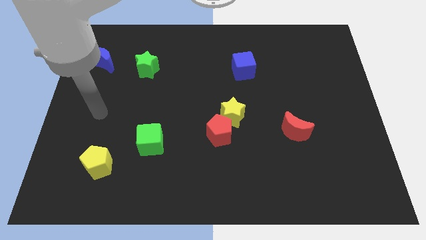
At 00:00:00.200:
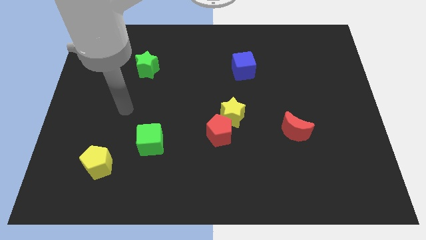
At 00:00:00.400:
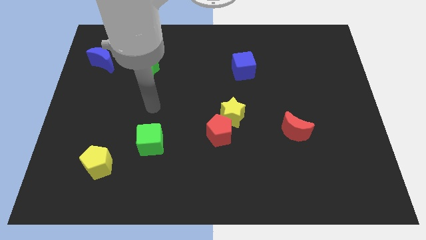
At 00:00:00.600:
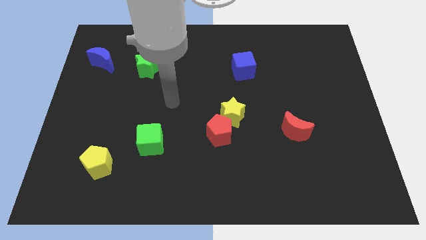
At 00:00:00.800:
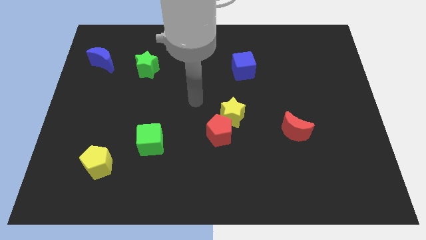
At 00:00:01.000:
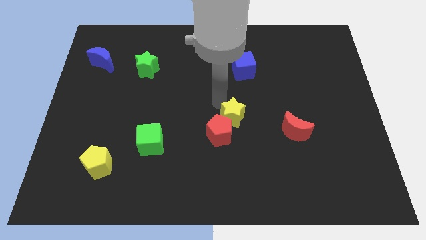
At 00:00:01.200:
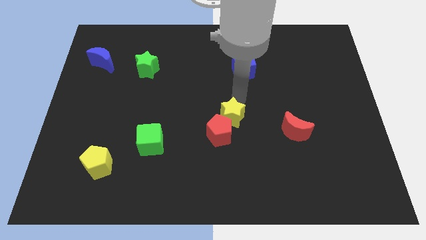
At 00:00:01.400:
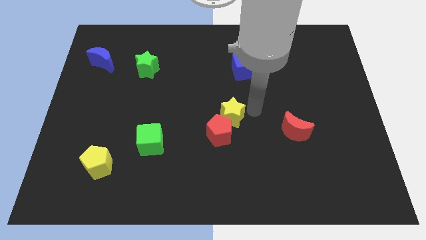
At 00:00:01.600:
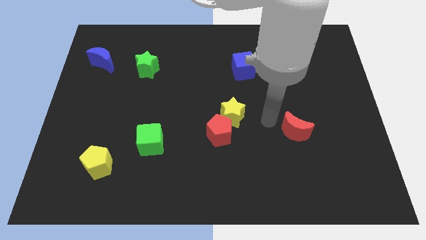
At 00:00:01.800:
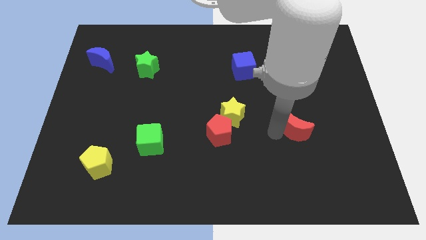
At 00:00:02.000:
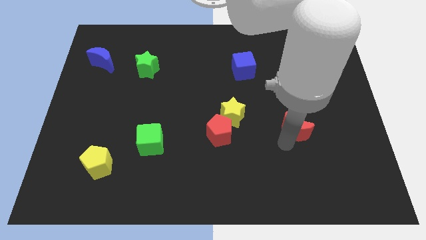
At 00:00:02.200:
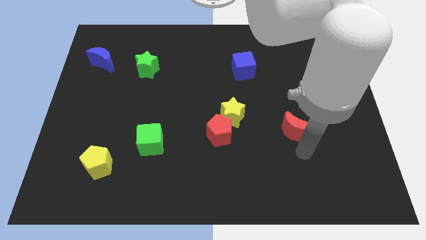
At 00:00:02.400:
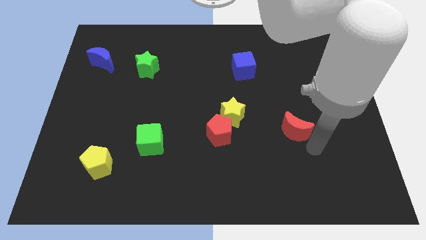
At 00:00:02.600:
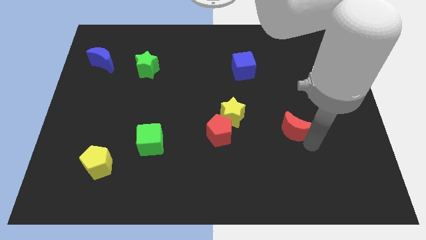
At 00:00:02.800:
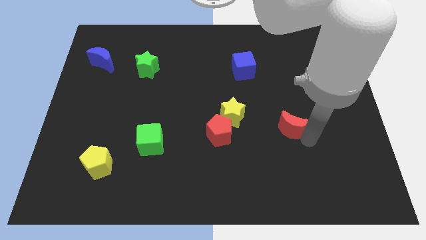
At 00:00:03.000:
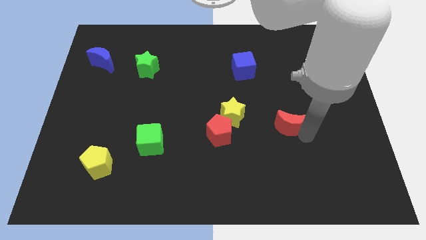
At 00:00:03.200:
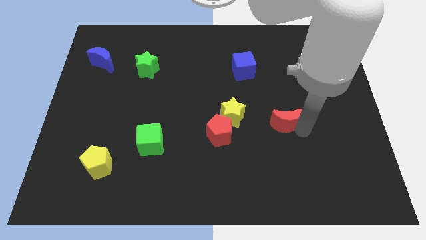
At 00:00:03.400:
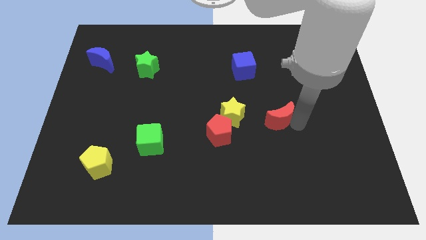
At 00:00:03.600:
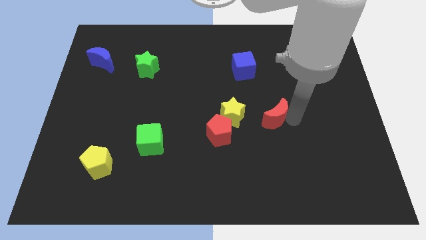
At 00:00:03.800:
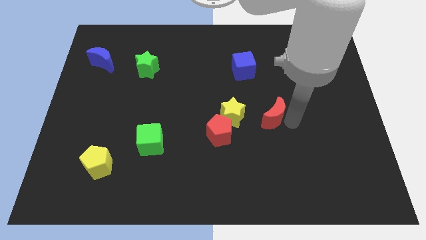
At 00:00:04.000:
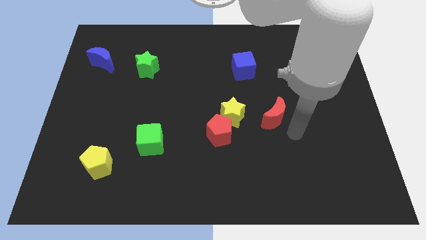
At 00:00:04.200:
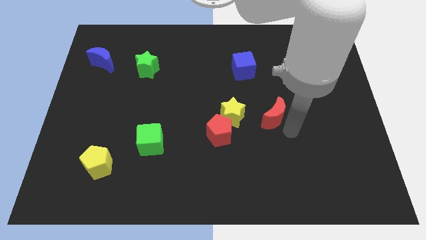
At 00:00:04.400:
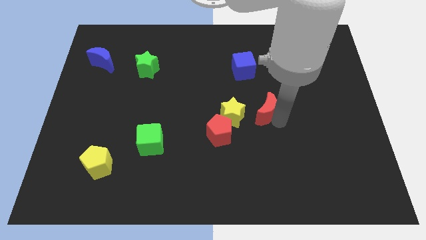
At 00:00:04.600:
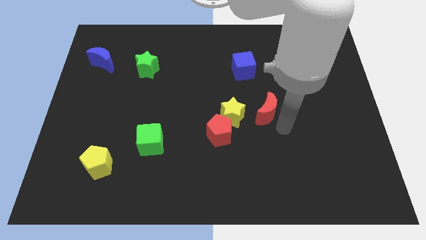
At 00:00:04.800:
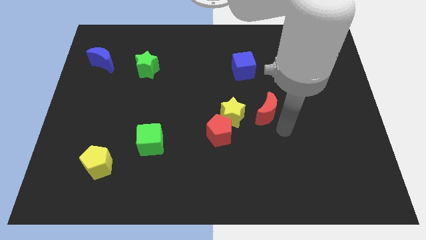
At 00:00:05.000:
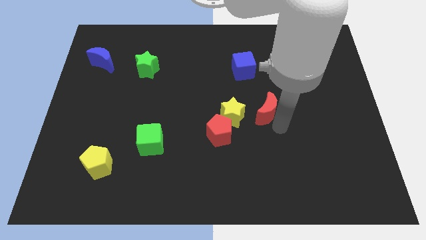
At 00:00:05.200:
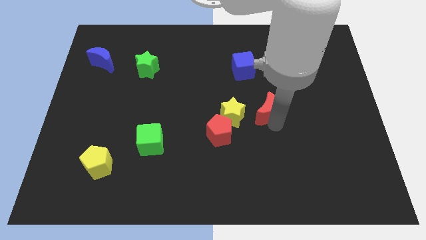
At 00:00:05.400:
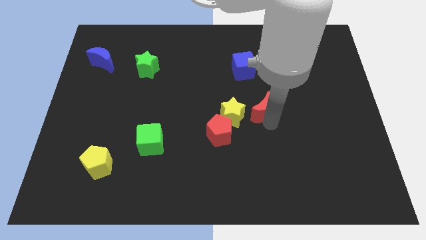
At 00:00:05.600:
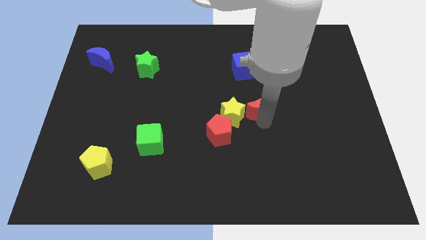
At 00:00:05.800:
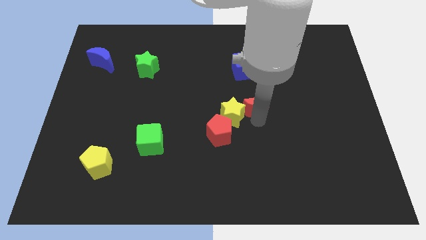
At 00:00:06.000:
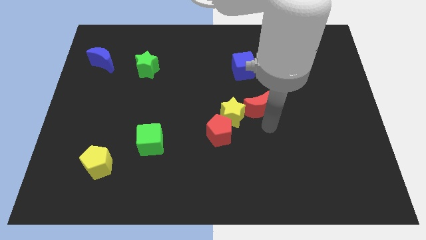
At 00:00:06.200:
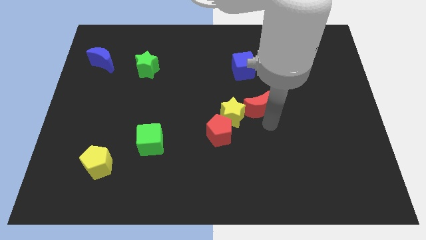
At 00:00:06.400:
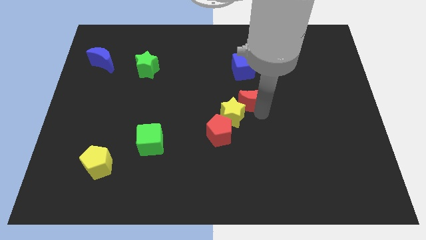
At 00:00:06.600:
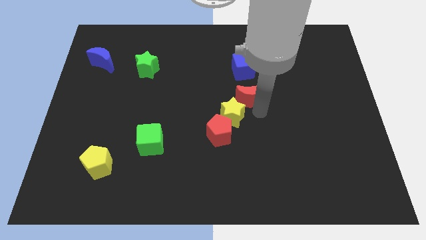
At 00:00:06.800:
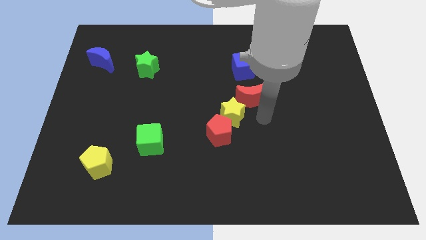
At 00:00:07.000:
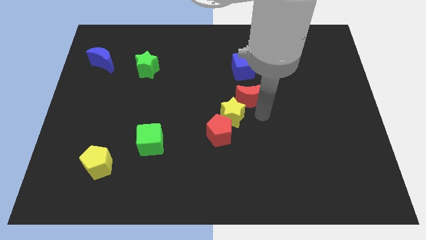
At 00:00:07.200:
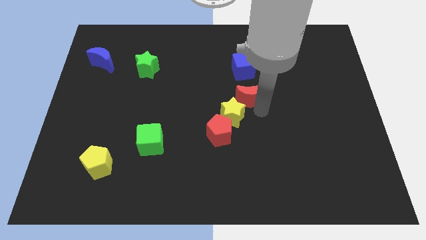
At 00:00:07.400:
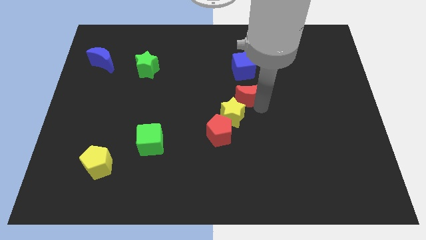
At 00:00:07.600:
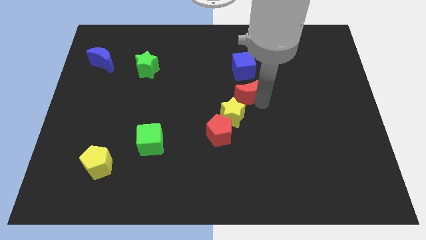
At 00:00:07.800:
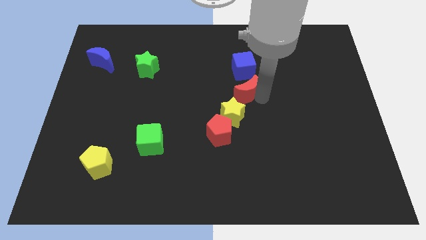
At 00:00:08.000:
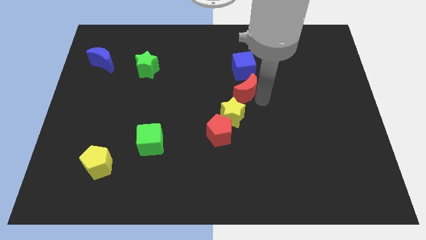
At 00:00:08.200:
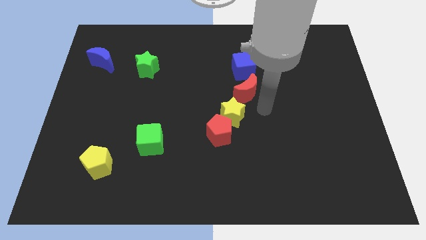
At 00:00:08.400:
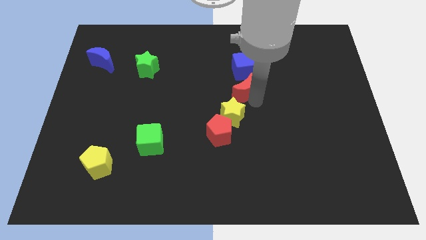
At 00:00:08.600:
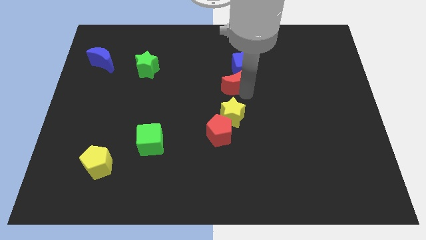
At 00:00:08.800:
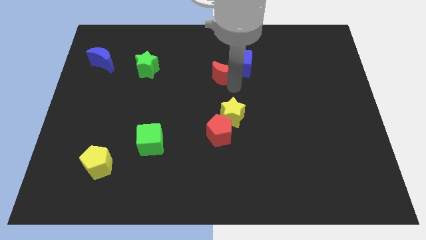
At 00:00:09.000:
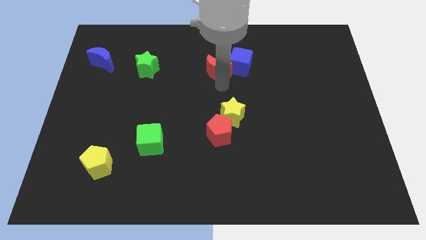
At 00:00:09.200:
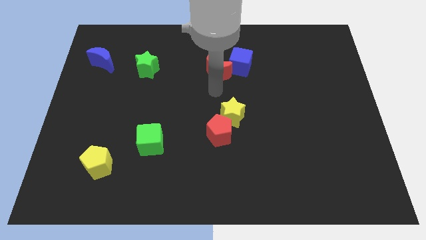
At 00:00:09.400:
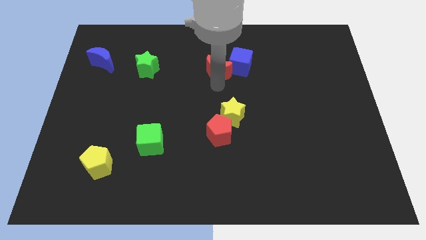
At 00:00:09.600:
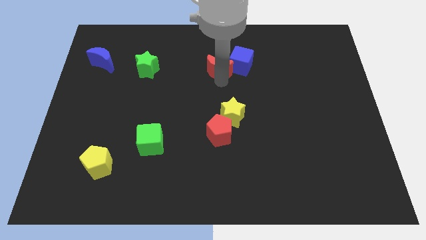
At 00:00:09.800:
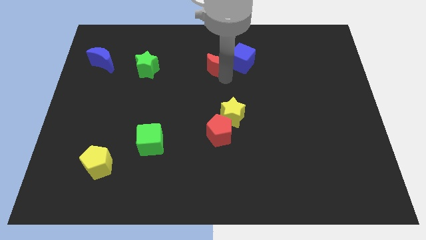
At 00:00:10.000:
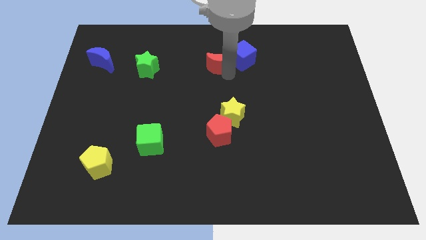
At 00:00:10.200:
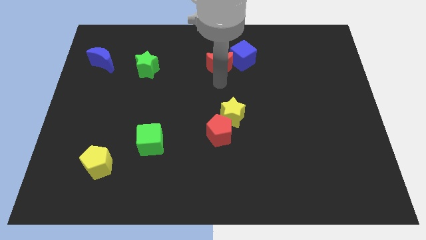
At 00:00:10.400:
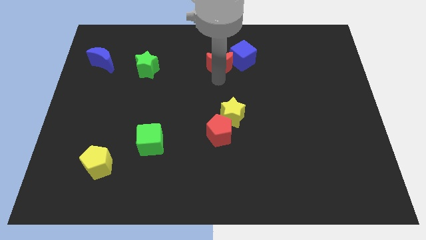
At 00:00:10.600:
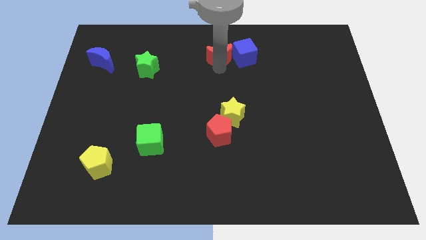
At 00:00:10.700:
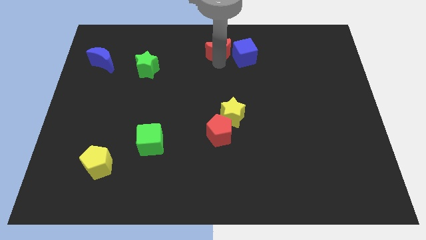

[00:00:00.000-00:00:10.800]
slide the red moon to the top left of the blue cube
